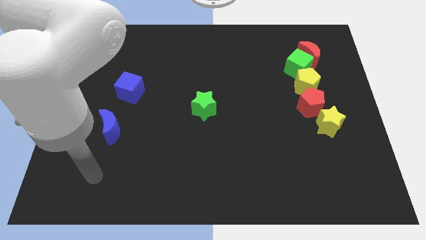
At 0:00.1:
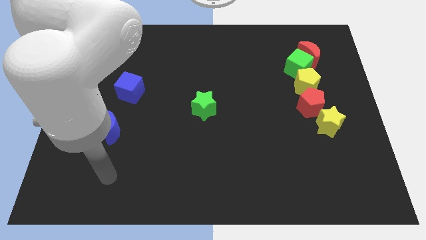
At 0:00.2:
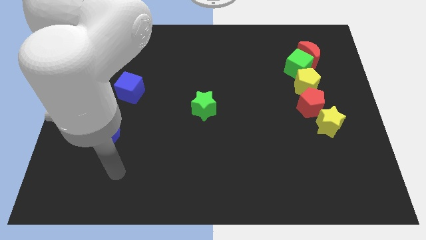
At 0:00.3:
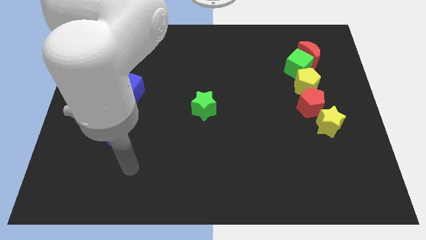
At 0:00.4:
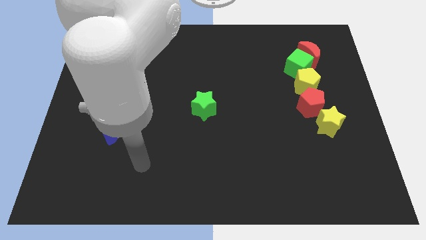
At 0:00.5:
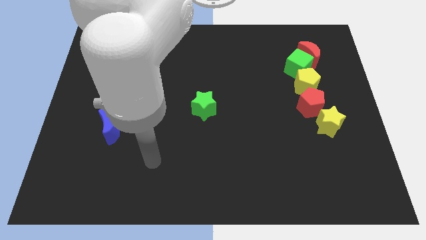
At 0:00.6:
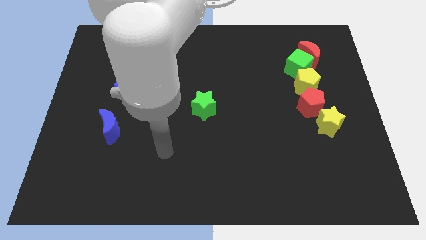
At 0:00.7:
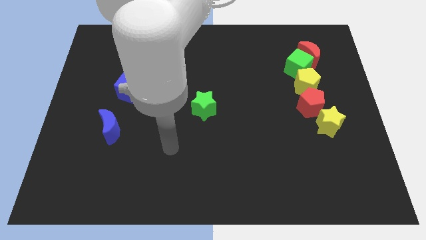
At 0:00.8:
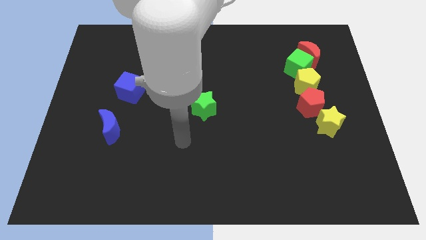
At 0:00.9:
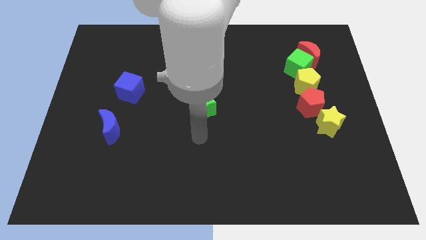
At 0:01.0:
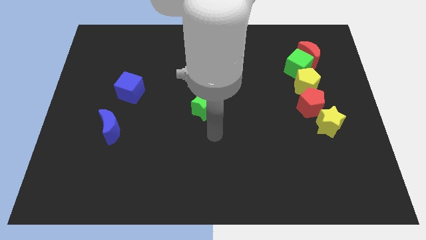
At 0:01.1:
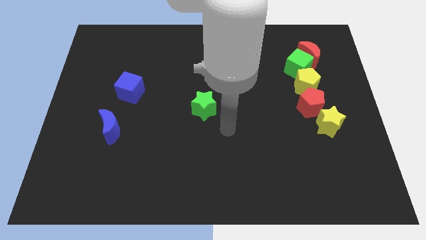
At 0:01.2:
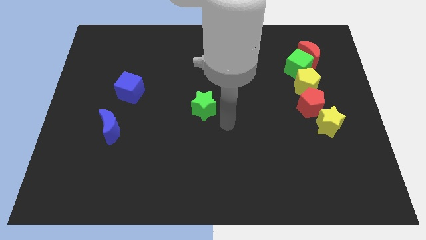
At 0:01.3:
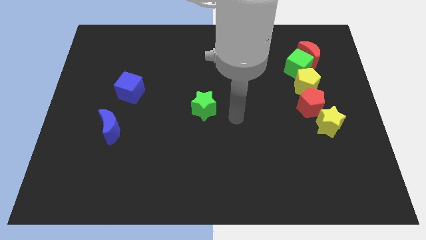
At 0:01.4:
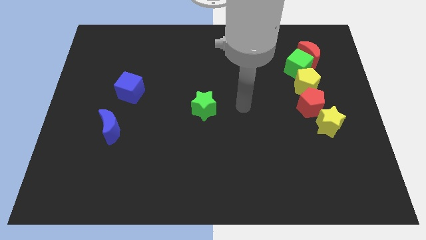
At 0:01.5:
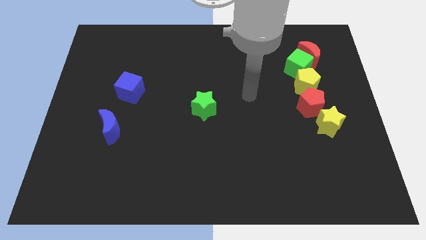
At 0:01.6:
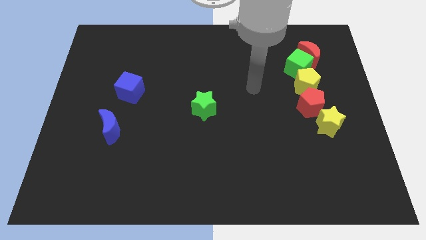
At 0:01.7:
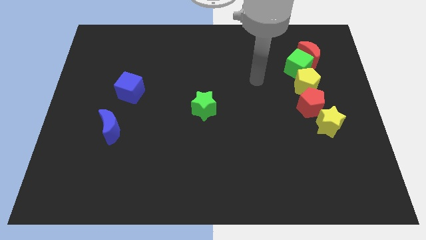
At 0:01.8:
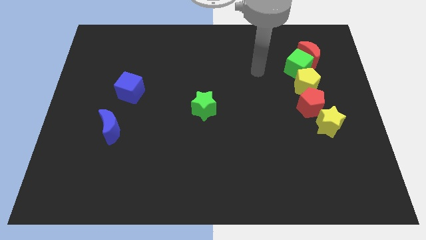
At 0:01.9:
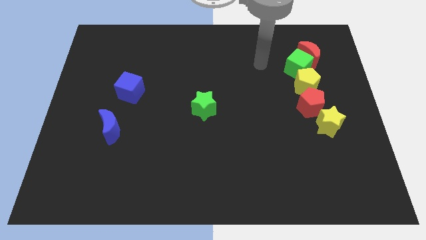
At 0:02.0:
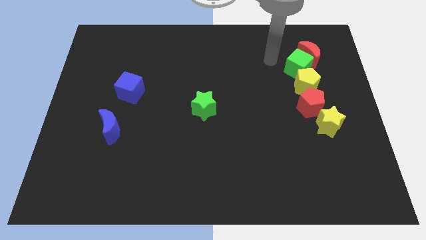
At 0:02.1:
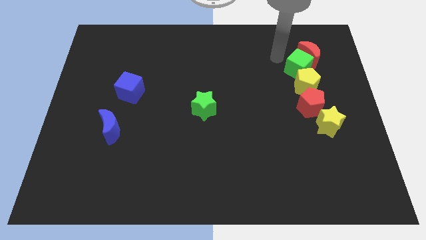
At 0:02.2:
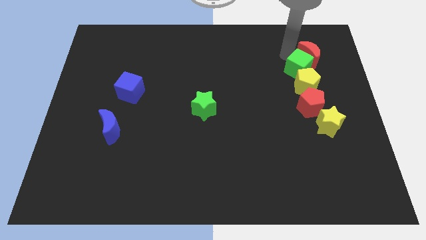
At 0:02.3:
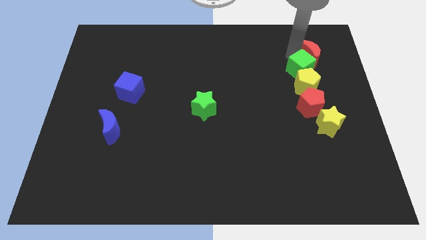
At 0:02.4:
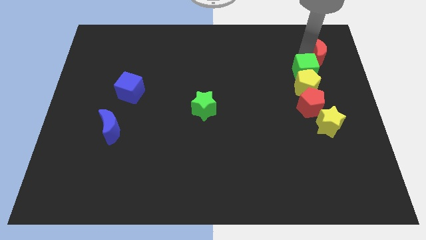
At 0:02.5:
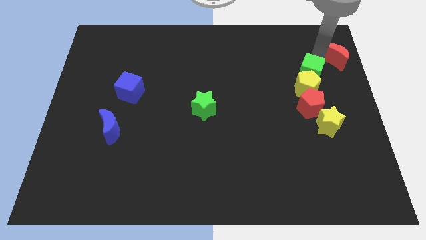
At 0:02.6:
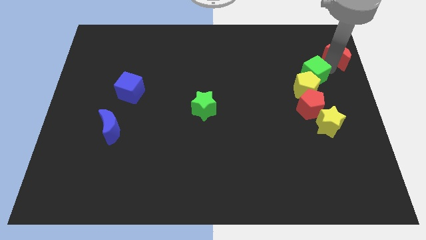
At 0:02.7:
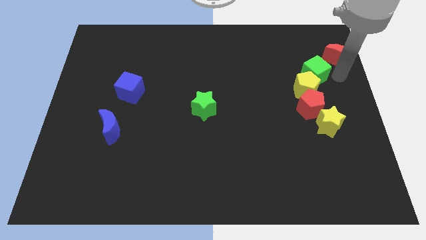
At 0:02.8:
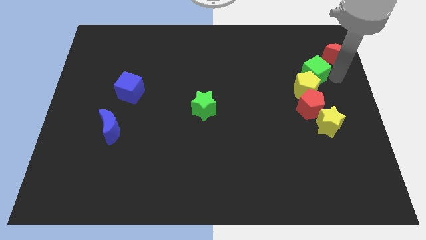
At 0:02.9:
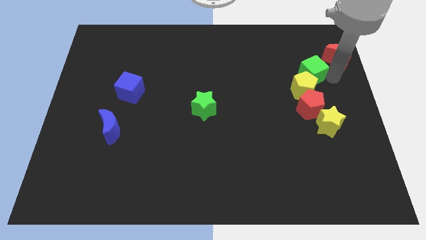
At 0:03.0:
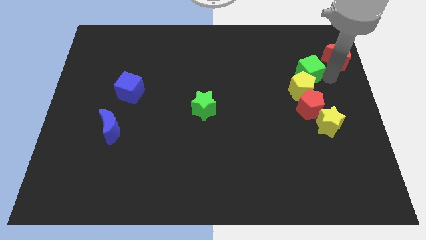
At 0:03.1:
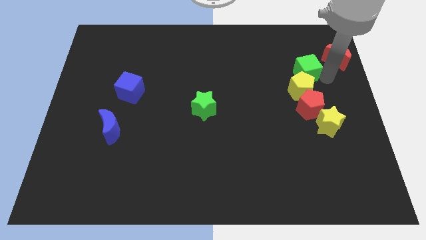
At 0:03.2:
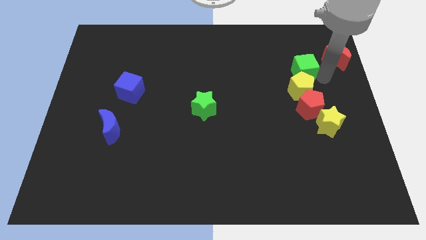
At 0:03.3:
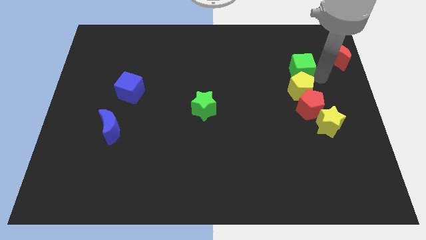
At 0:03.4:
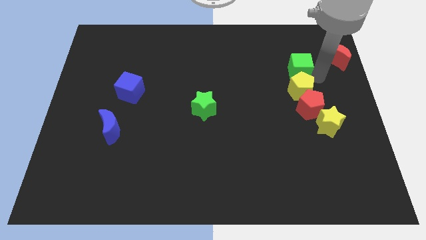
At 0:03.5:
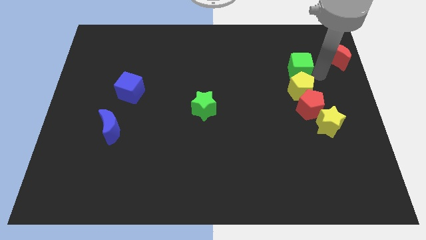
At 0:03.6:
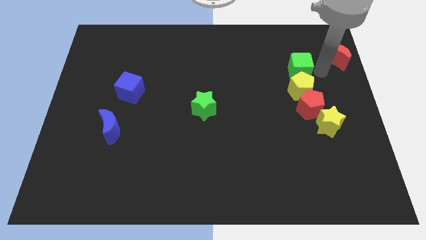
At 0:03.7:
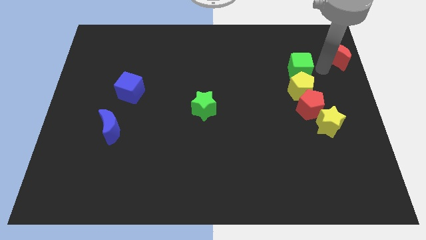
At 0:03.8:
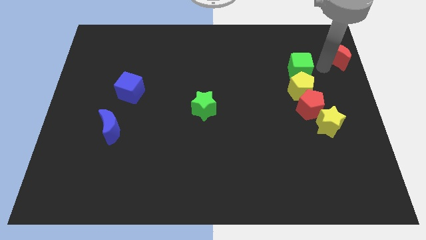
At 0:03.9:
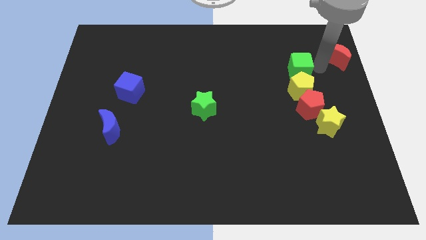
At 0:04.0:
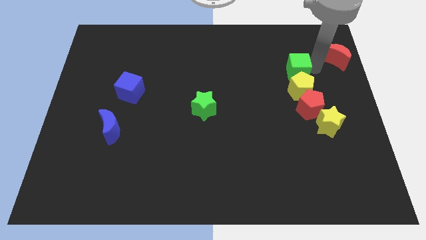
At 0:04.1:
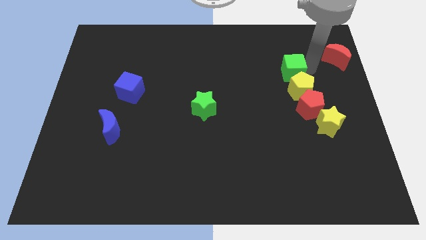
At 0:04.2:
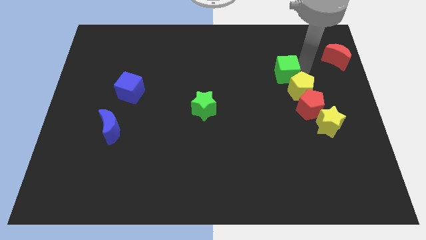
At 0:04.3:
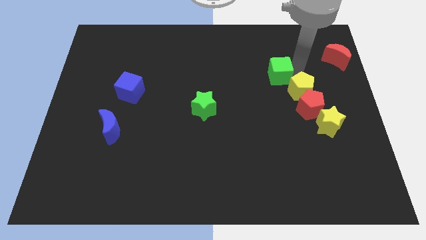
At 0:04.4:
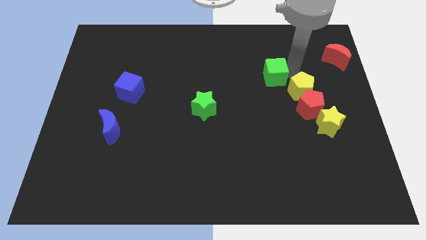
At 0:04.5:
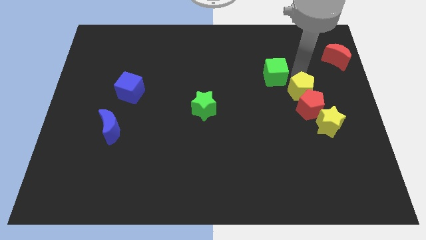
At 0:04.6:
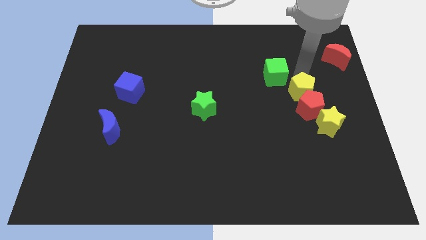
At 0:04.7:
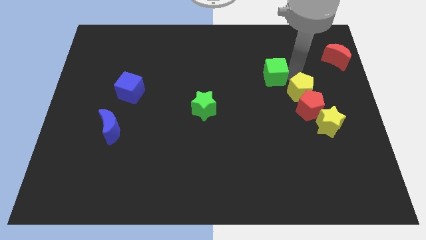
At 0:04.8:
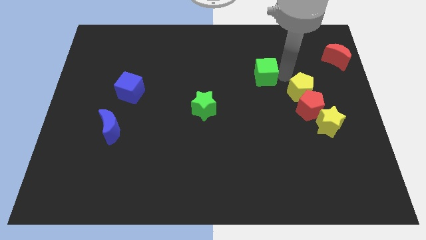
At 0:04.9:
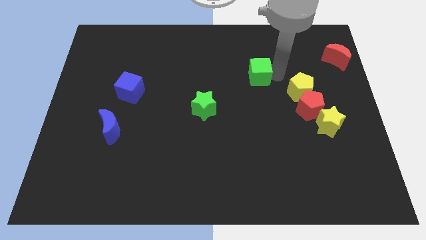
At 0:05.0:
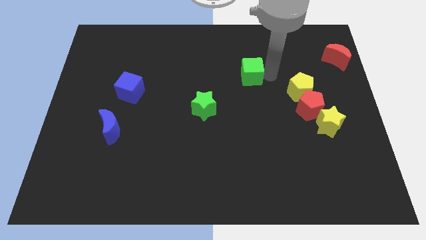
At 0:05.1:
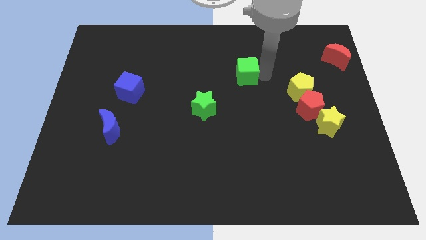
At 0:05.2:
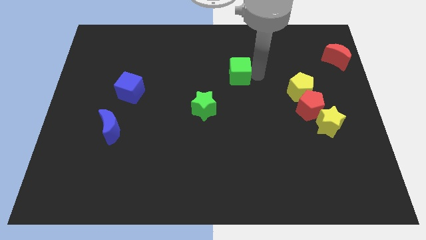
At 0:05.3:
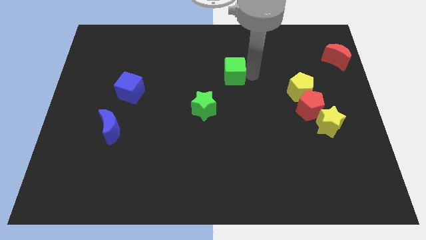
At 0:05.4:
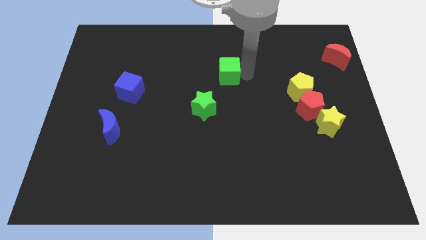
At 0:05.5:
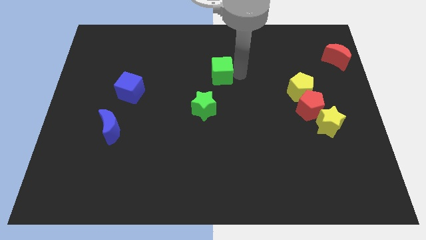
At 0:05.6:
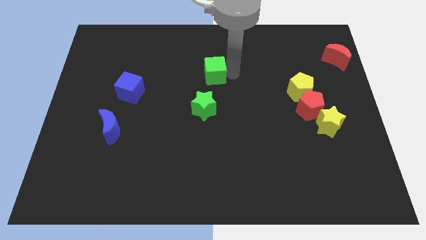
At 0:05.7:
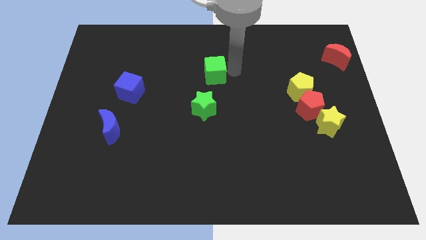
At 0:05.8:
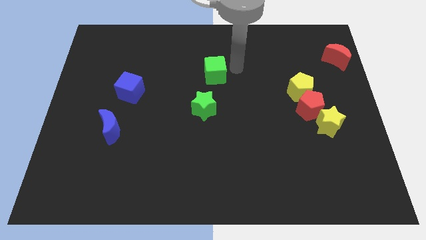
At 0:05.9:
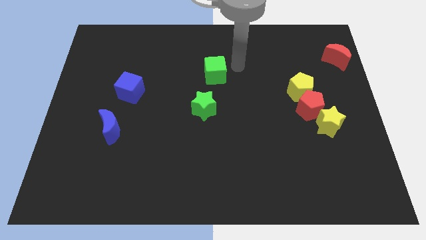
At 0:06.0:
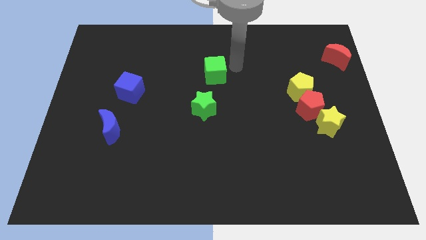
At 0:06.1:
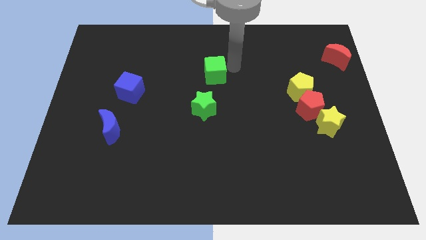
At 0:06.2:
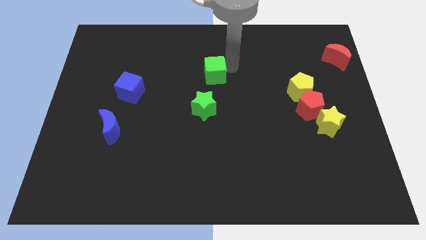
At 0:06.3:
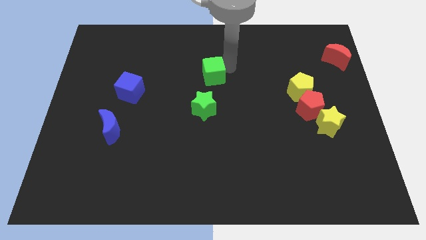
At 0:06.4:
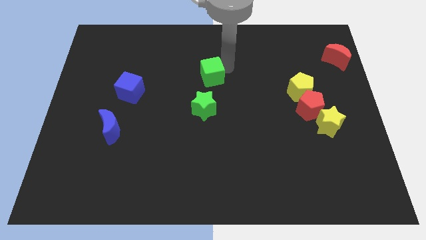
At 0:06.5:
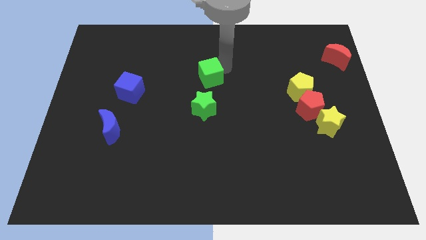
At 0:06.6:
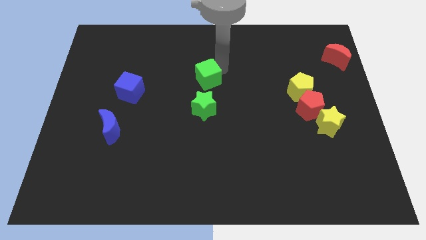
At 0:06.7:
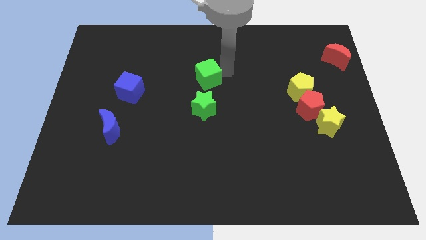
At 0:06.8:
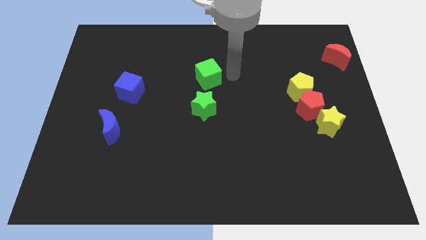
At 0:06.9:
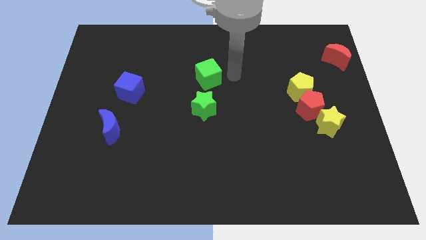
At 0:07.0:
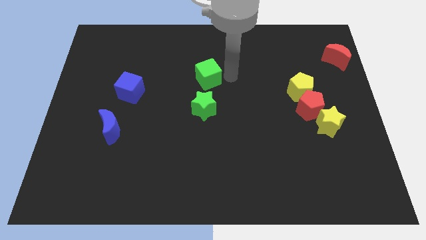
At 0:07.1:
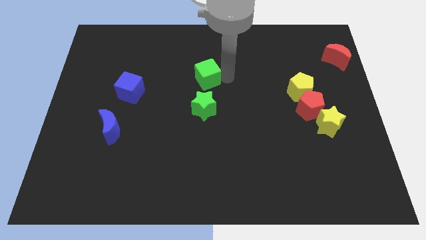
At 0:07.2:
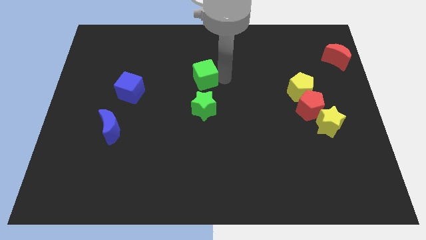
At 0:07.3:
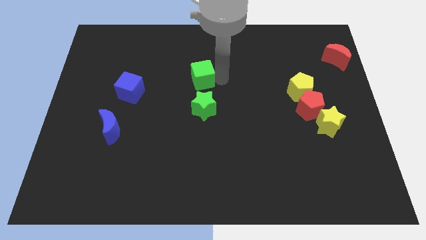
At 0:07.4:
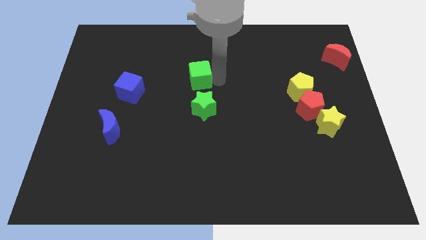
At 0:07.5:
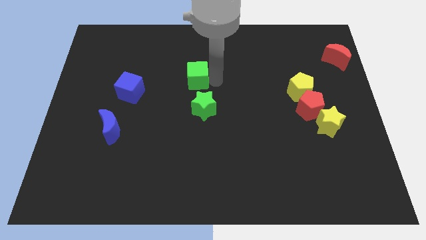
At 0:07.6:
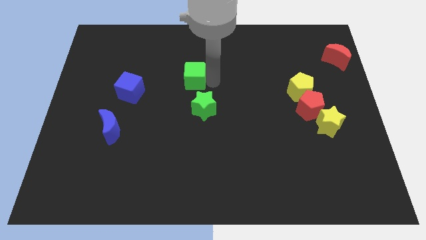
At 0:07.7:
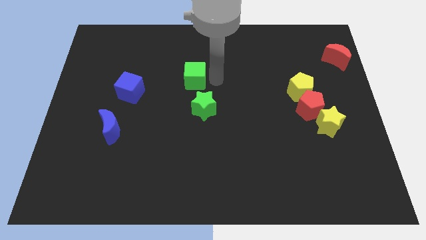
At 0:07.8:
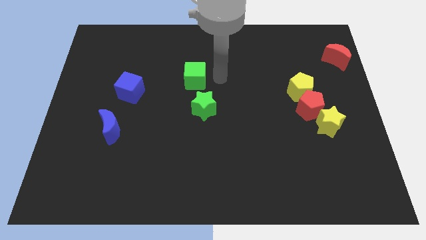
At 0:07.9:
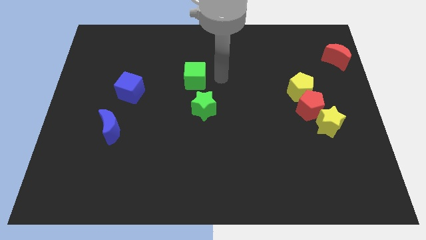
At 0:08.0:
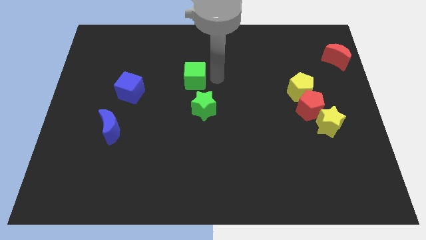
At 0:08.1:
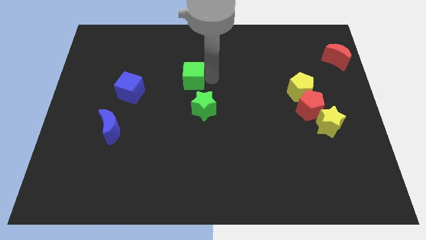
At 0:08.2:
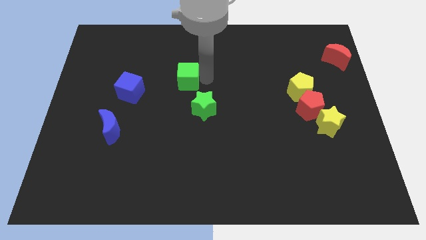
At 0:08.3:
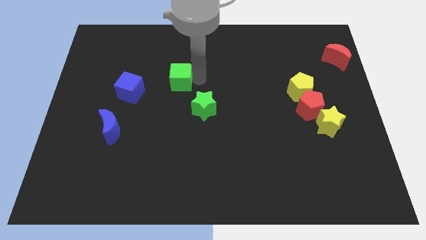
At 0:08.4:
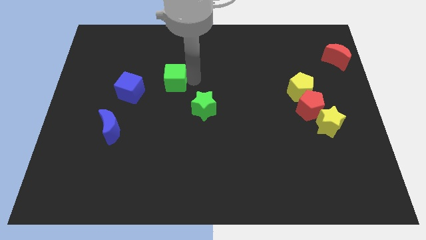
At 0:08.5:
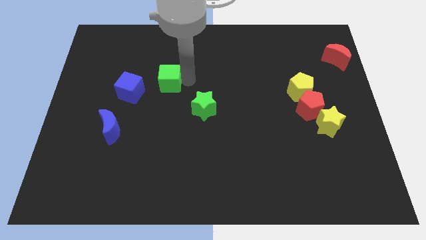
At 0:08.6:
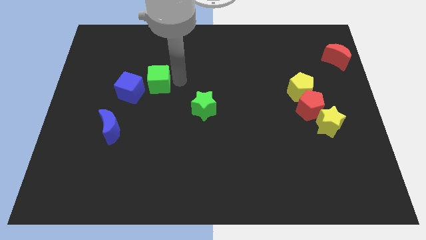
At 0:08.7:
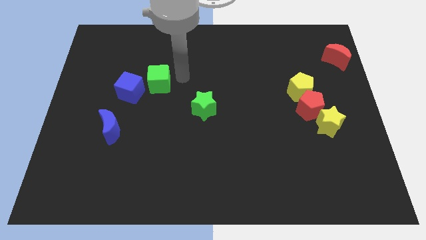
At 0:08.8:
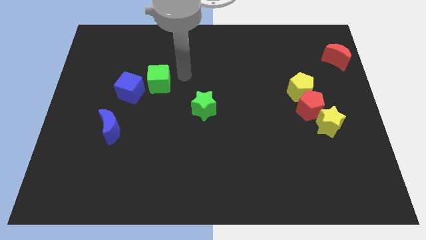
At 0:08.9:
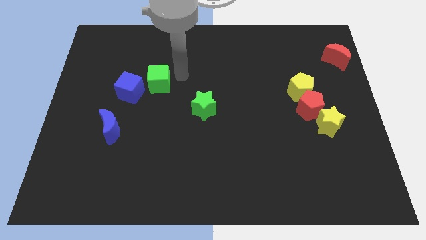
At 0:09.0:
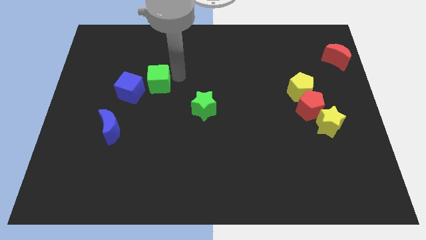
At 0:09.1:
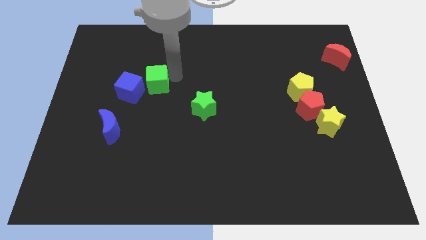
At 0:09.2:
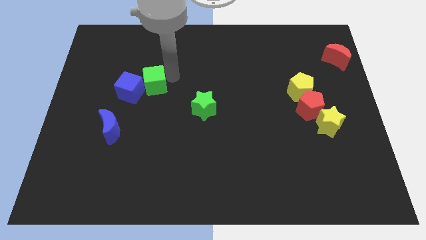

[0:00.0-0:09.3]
put the green cube next to the blue cube
